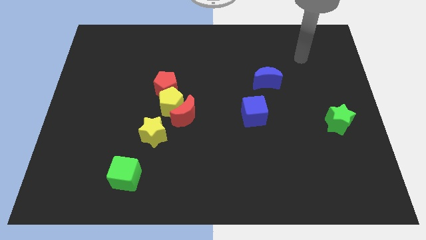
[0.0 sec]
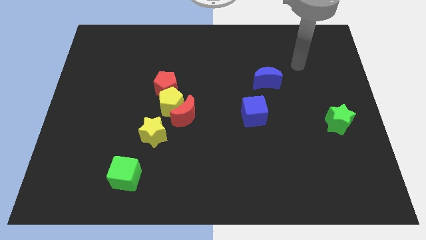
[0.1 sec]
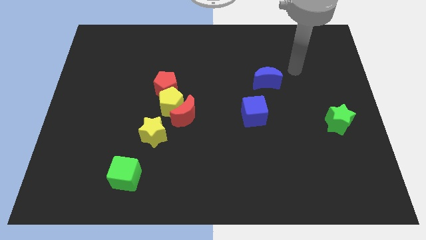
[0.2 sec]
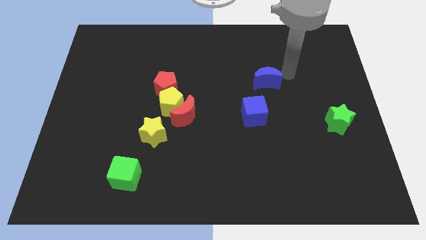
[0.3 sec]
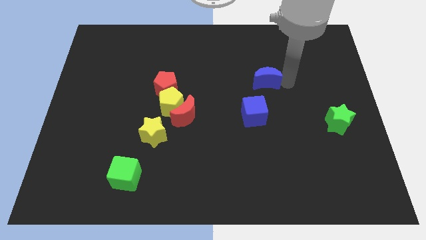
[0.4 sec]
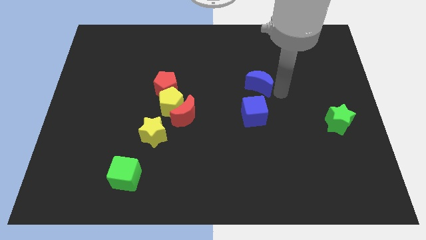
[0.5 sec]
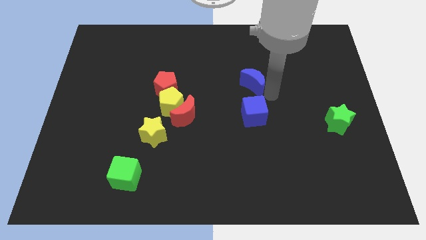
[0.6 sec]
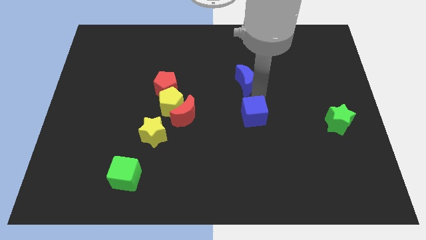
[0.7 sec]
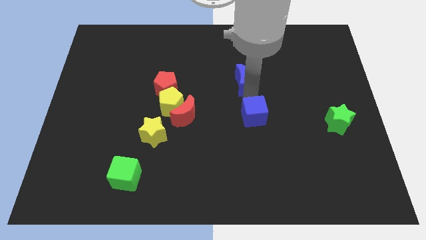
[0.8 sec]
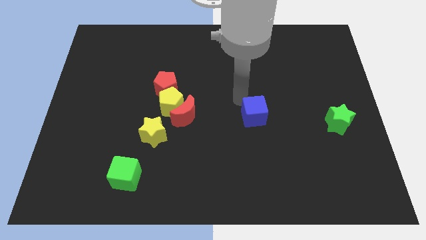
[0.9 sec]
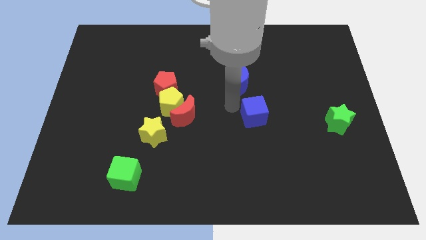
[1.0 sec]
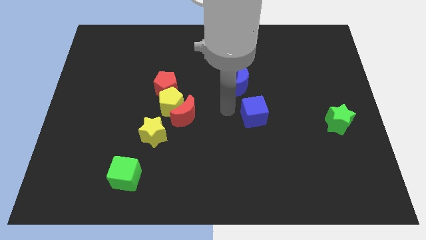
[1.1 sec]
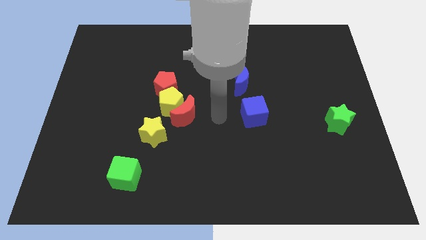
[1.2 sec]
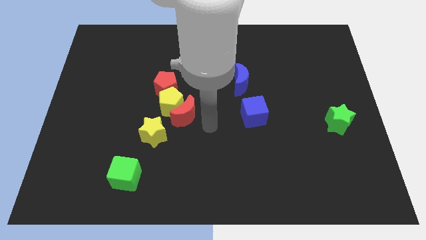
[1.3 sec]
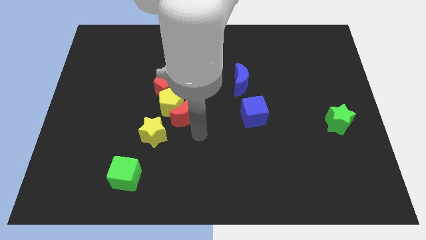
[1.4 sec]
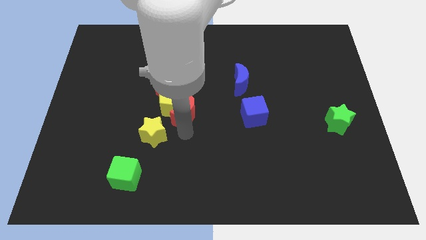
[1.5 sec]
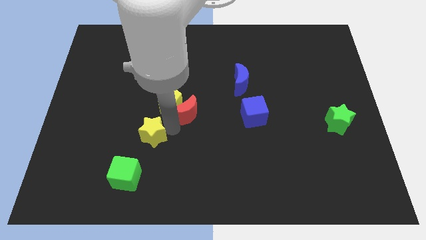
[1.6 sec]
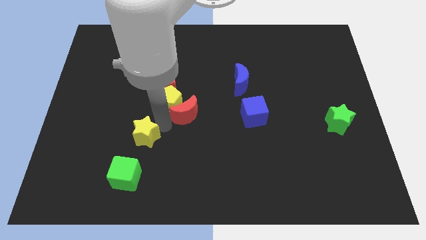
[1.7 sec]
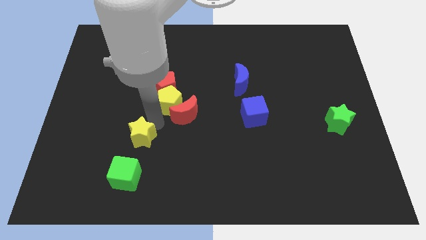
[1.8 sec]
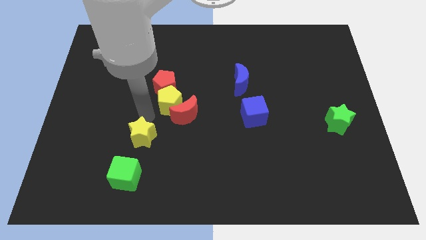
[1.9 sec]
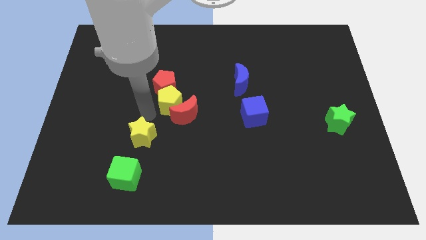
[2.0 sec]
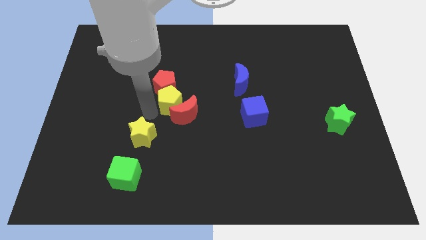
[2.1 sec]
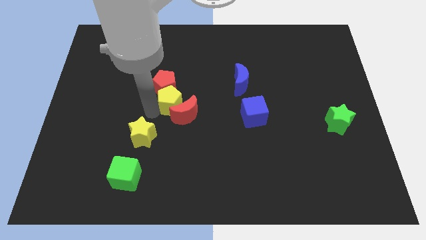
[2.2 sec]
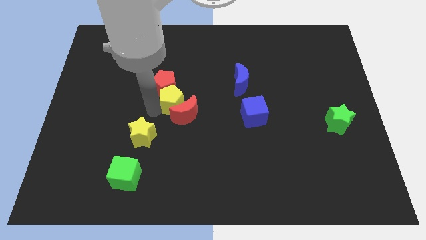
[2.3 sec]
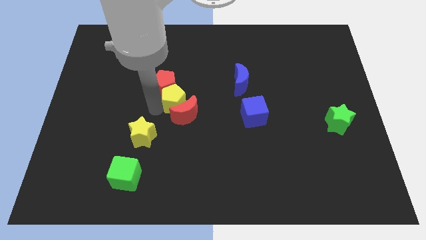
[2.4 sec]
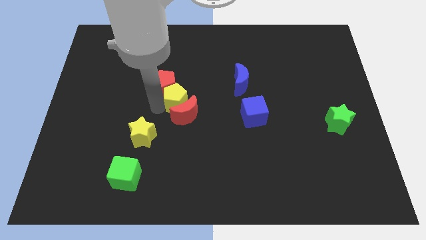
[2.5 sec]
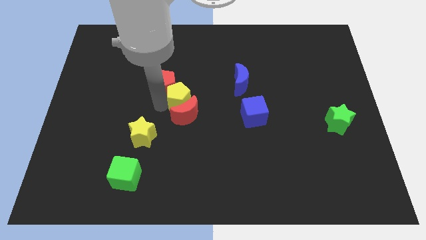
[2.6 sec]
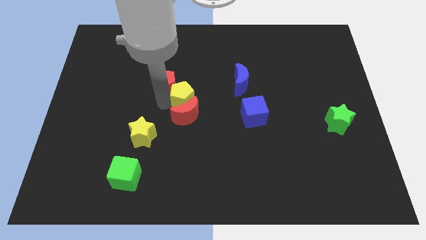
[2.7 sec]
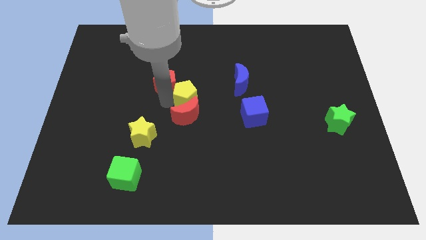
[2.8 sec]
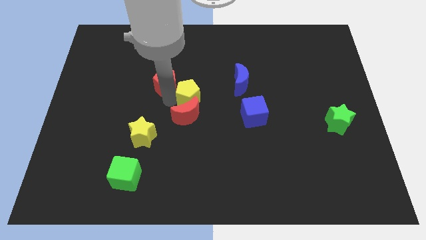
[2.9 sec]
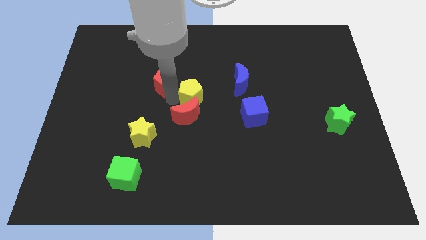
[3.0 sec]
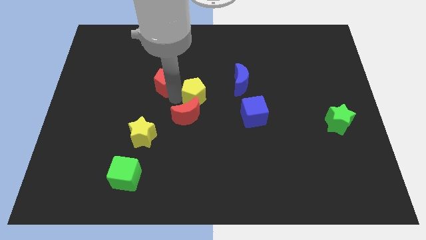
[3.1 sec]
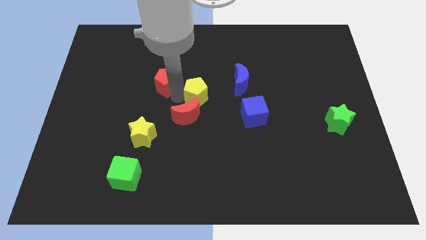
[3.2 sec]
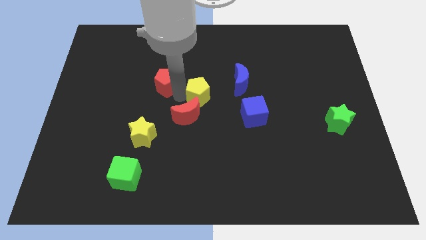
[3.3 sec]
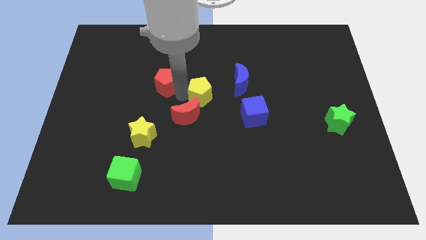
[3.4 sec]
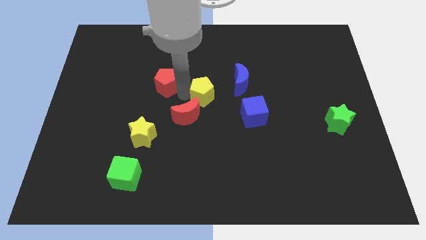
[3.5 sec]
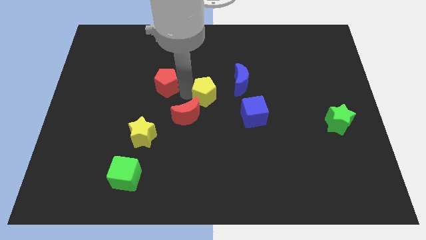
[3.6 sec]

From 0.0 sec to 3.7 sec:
pull the yellow pentagon apart from the group of blocks

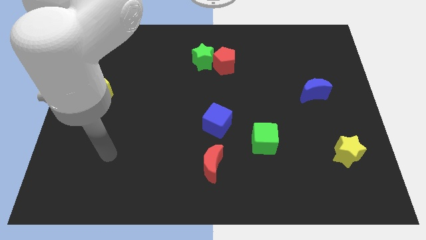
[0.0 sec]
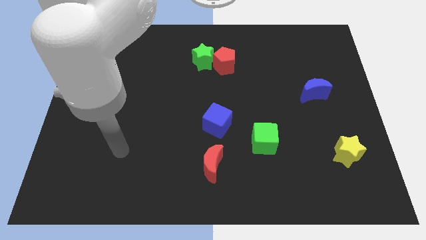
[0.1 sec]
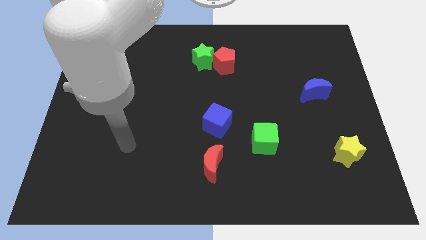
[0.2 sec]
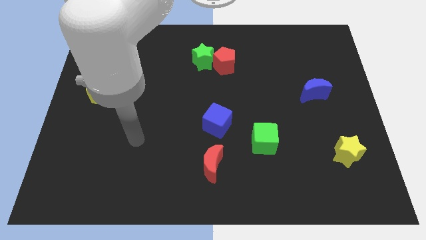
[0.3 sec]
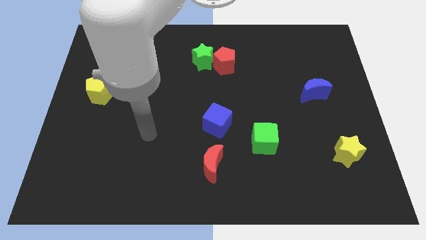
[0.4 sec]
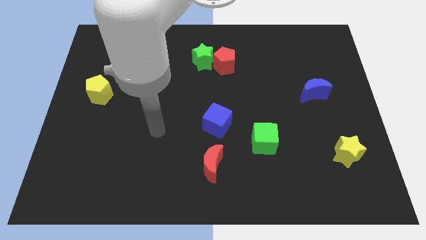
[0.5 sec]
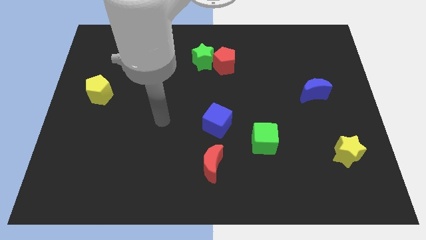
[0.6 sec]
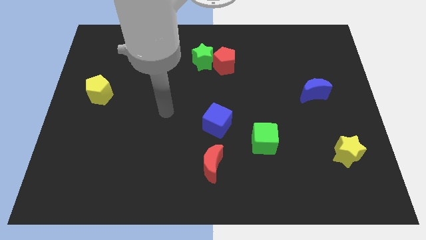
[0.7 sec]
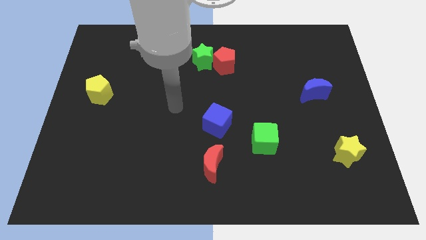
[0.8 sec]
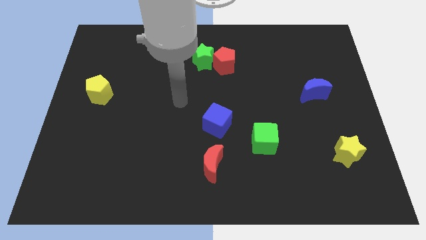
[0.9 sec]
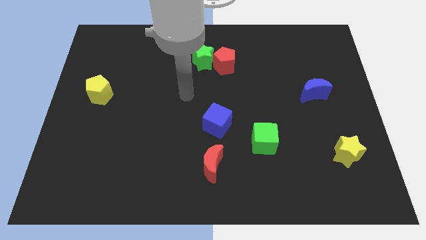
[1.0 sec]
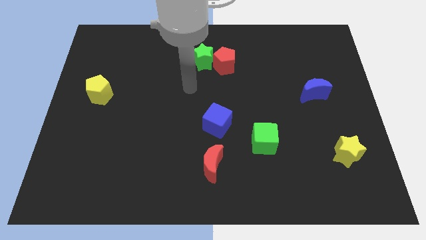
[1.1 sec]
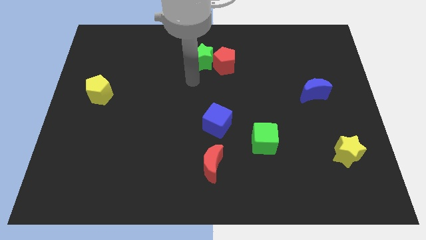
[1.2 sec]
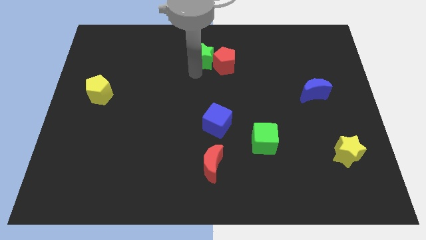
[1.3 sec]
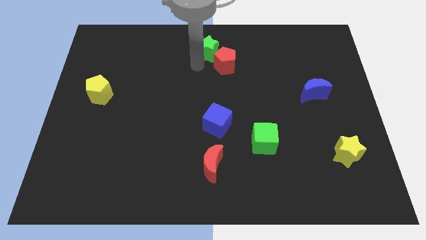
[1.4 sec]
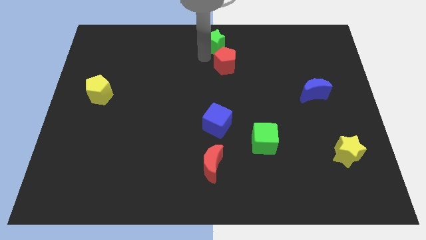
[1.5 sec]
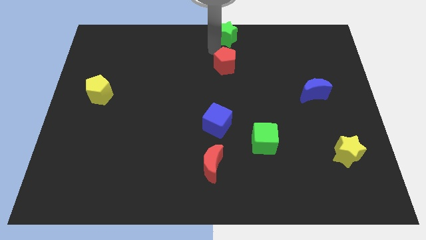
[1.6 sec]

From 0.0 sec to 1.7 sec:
pull the red pentagon apart from the green star

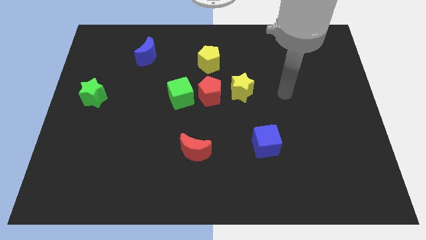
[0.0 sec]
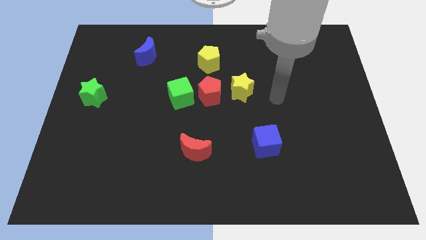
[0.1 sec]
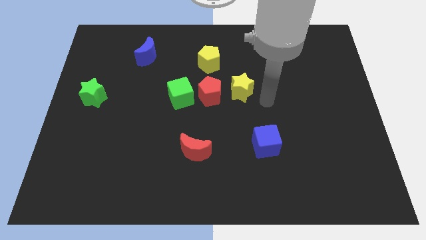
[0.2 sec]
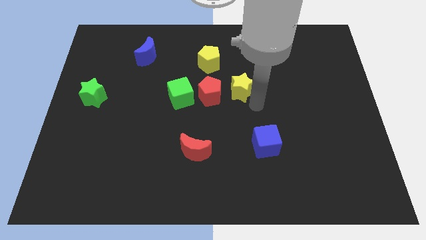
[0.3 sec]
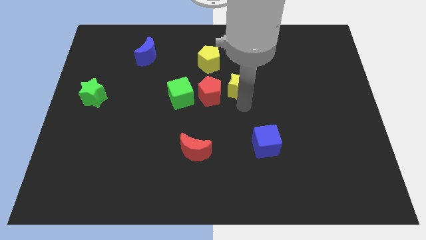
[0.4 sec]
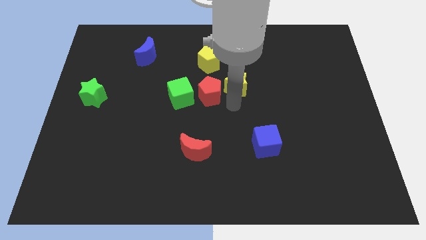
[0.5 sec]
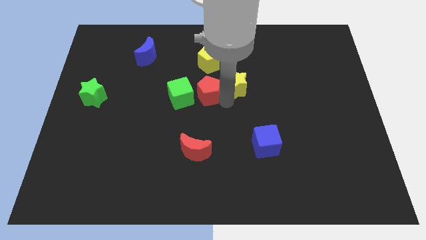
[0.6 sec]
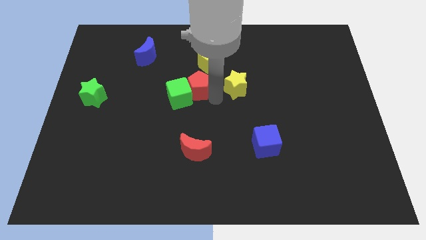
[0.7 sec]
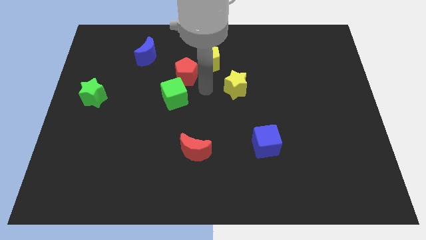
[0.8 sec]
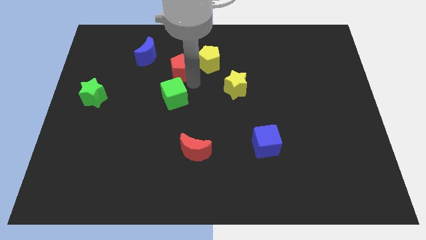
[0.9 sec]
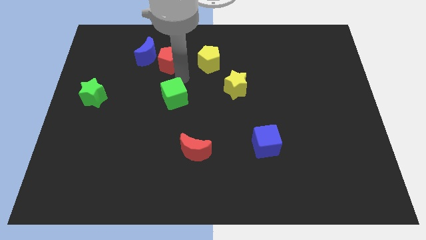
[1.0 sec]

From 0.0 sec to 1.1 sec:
separate the green cube from the red pentagon

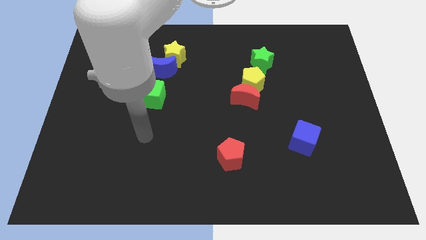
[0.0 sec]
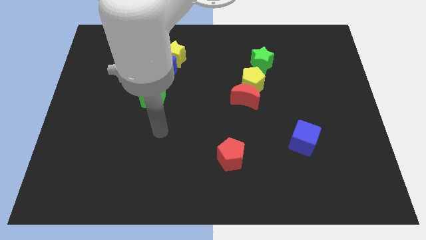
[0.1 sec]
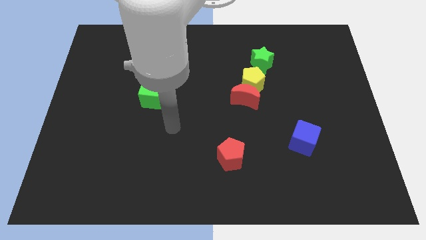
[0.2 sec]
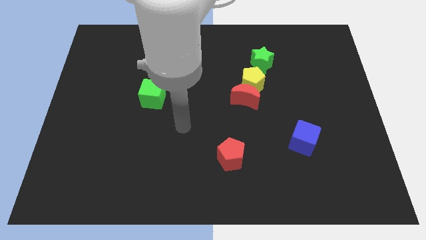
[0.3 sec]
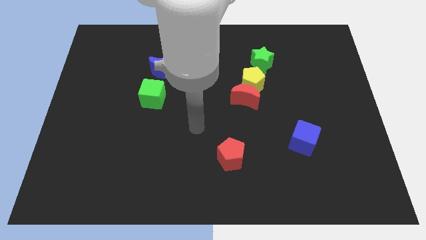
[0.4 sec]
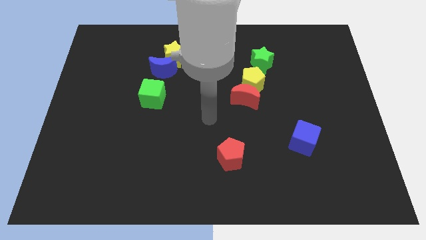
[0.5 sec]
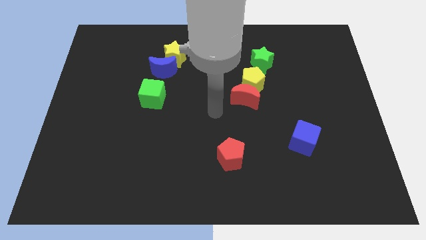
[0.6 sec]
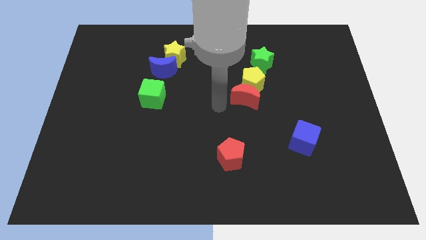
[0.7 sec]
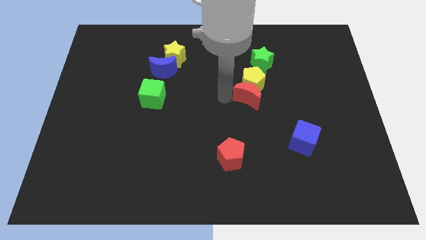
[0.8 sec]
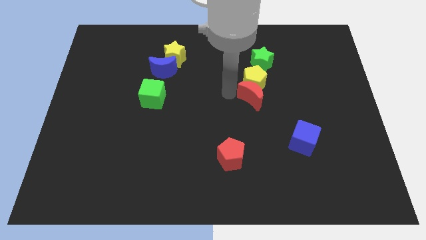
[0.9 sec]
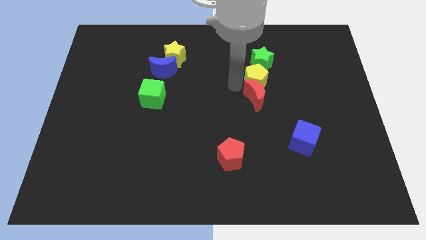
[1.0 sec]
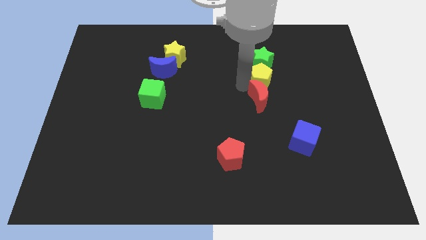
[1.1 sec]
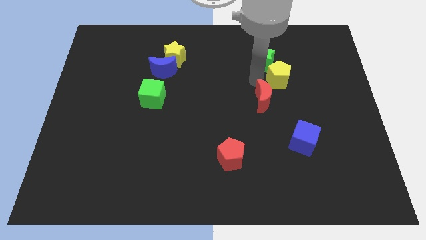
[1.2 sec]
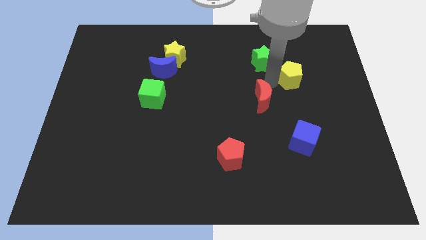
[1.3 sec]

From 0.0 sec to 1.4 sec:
move the red moon away from the yellow pentagon

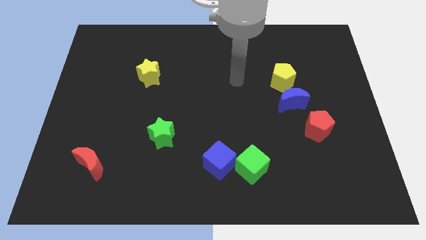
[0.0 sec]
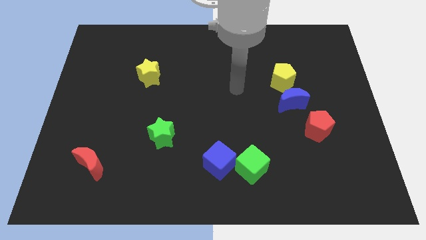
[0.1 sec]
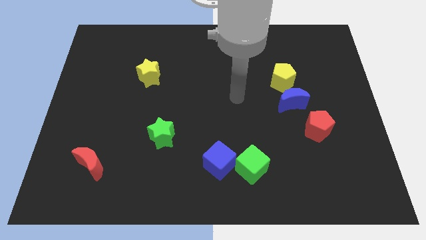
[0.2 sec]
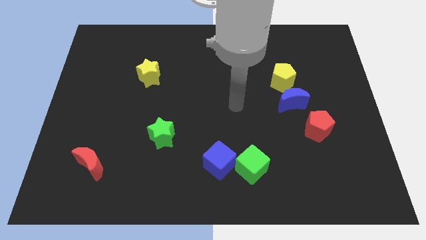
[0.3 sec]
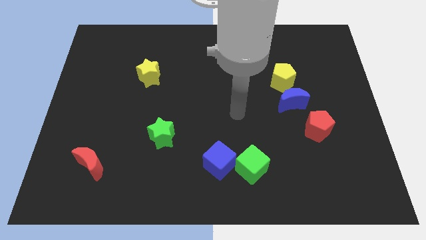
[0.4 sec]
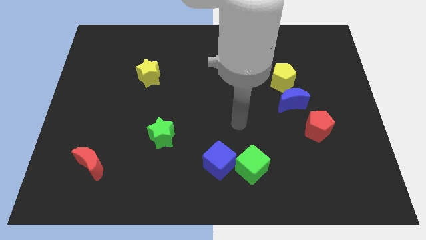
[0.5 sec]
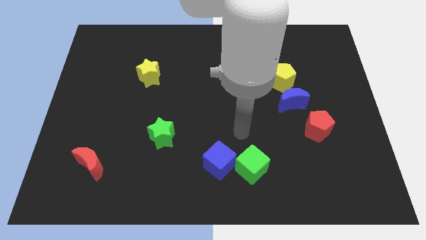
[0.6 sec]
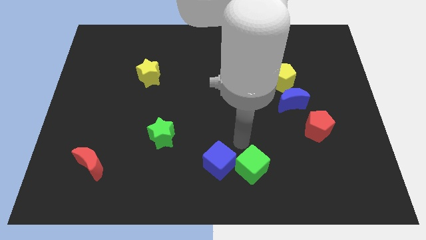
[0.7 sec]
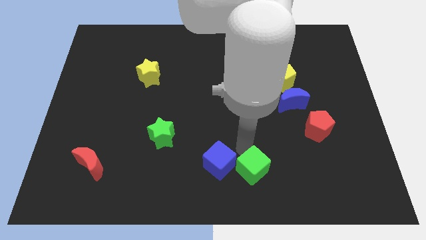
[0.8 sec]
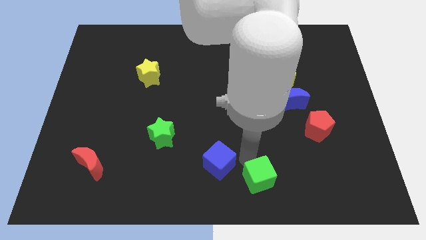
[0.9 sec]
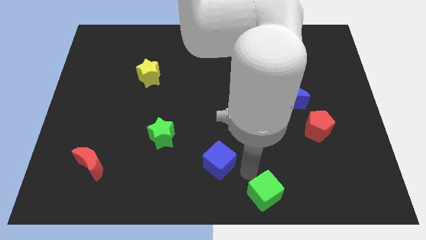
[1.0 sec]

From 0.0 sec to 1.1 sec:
pull the blue cube apart from the green cube

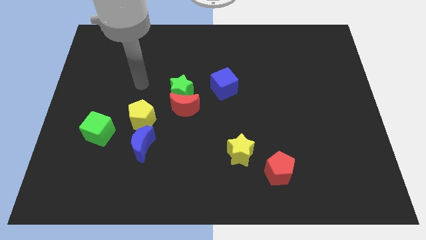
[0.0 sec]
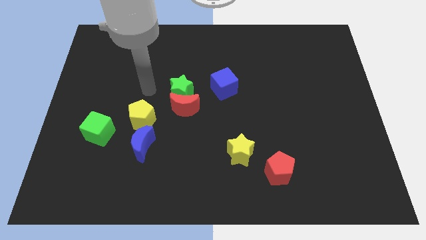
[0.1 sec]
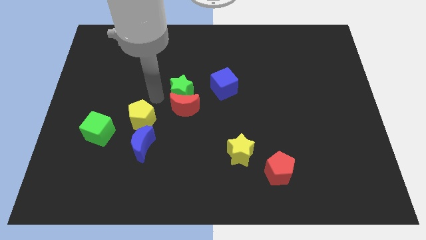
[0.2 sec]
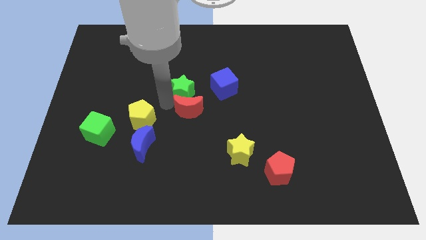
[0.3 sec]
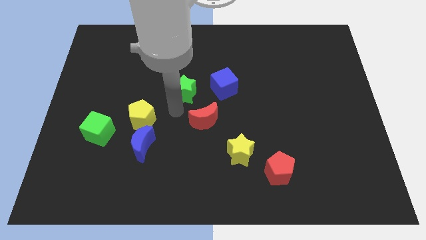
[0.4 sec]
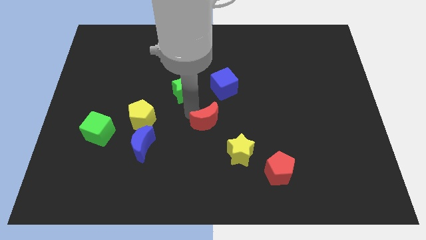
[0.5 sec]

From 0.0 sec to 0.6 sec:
separate the green star from the red moon
